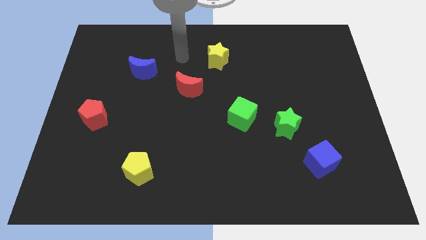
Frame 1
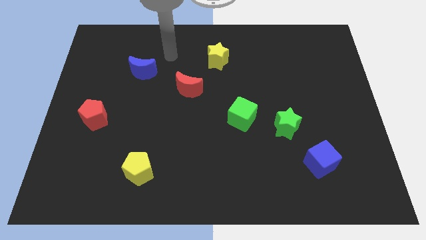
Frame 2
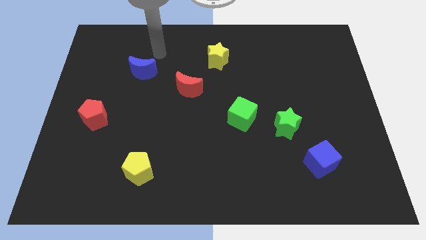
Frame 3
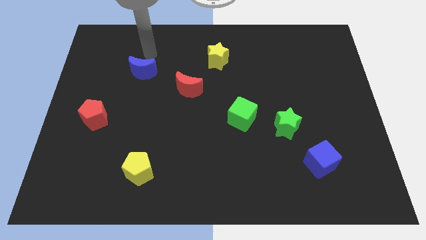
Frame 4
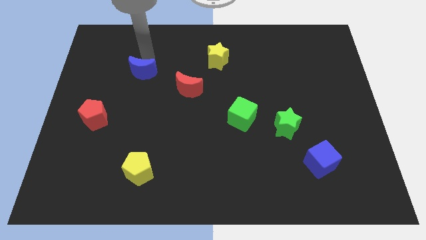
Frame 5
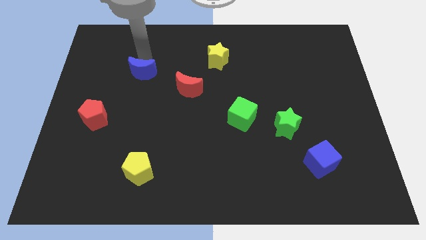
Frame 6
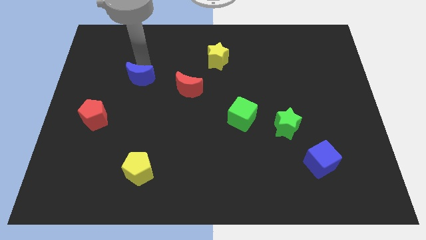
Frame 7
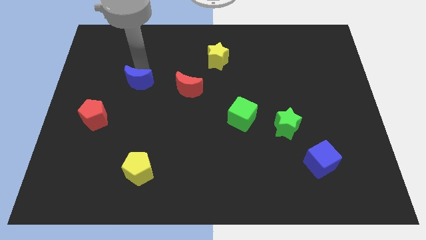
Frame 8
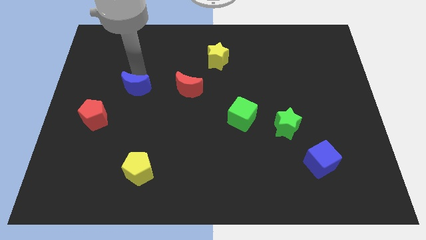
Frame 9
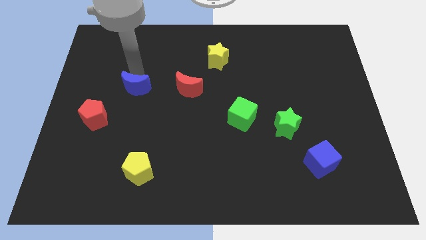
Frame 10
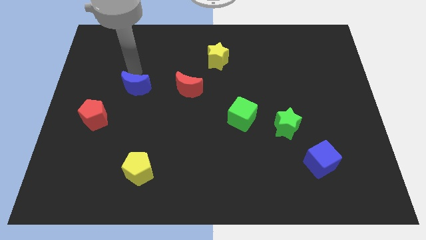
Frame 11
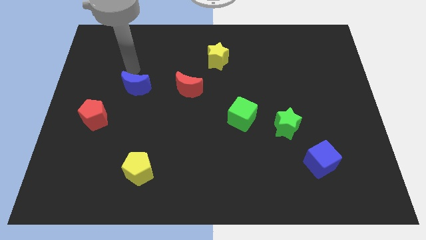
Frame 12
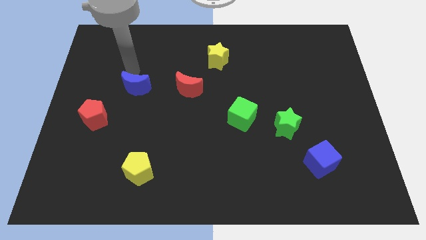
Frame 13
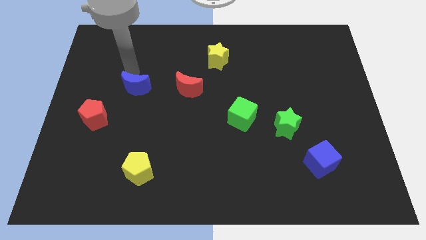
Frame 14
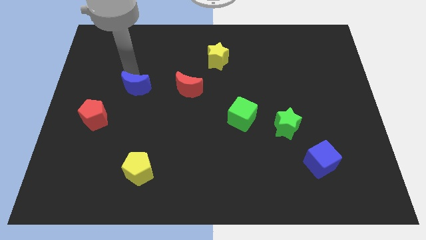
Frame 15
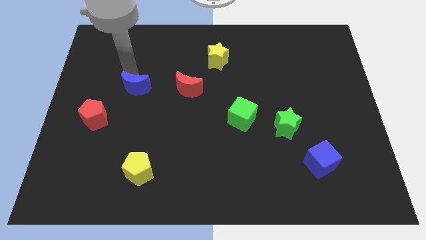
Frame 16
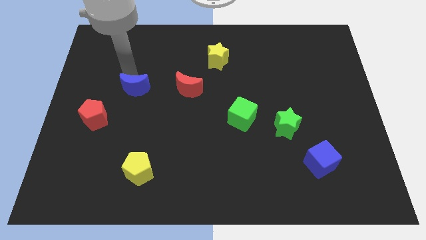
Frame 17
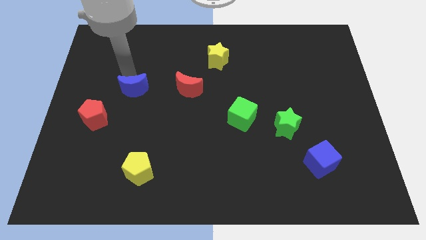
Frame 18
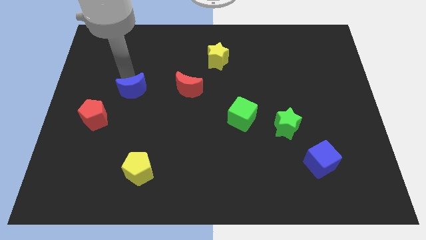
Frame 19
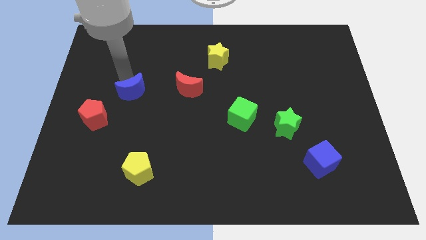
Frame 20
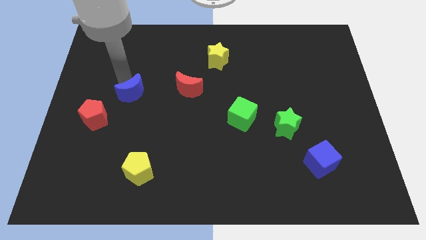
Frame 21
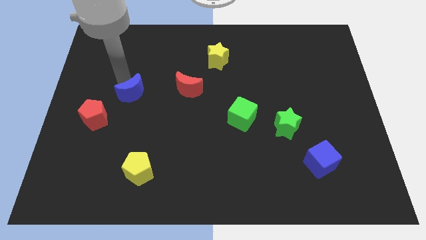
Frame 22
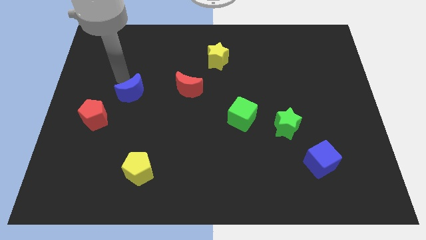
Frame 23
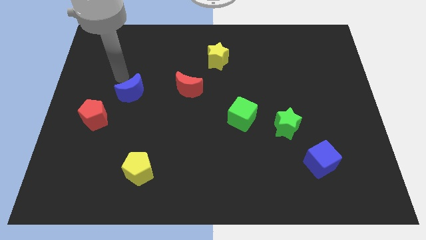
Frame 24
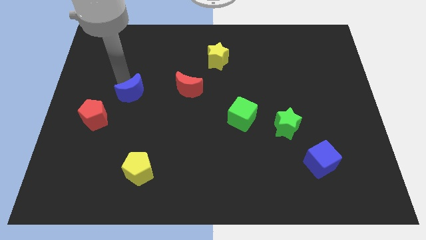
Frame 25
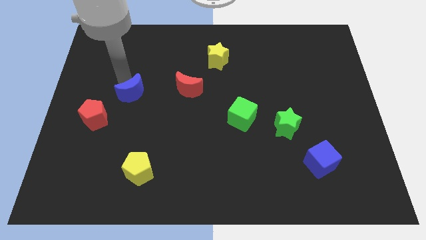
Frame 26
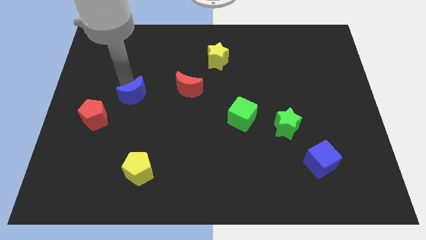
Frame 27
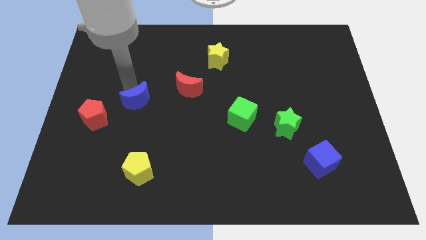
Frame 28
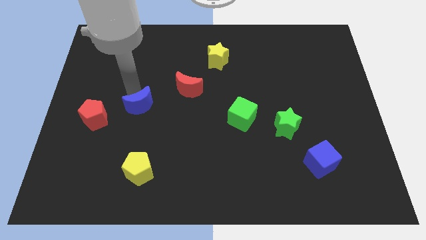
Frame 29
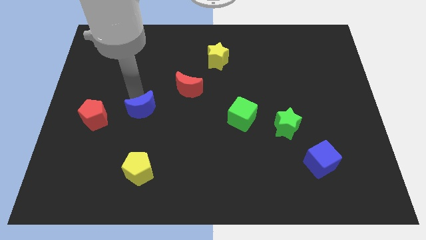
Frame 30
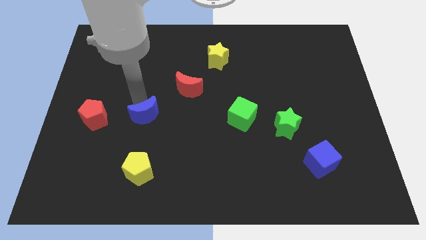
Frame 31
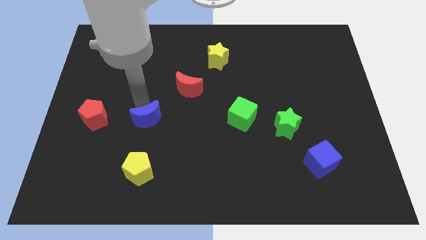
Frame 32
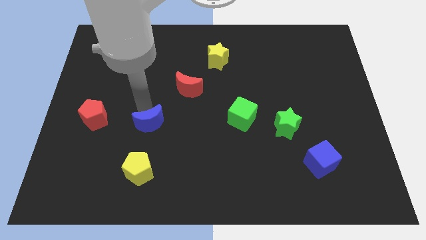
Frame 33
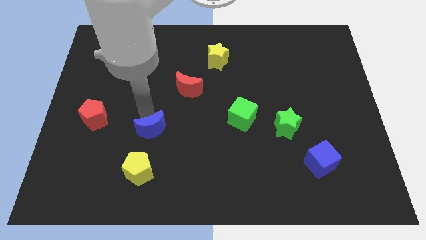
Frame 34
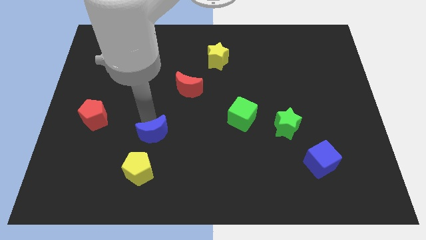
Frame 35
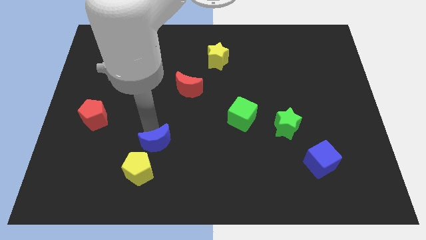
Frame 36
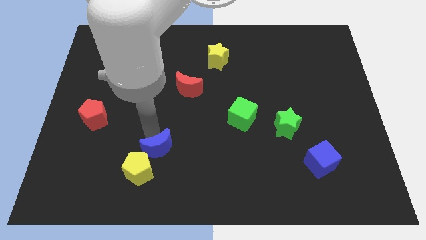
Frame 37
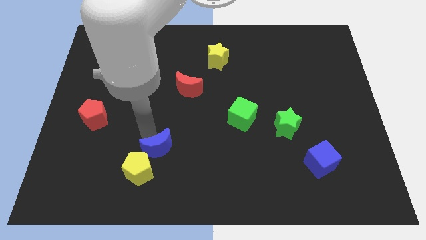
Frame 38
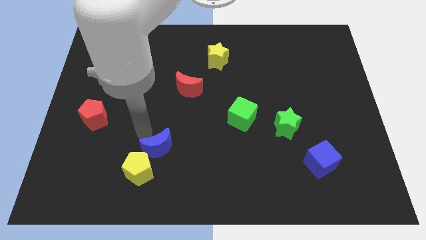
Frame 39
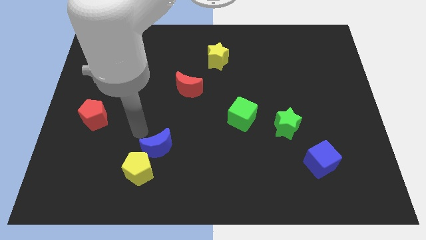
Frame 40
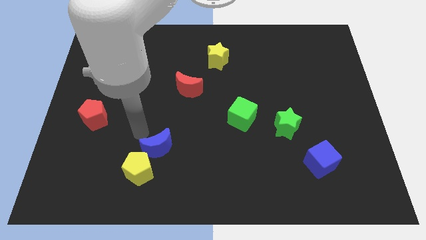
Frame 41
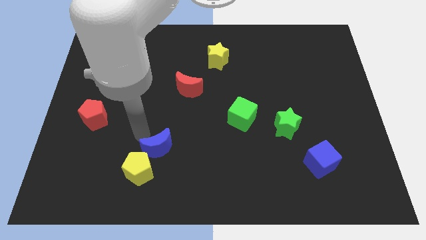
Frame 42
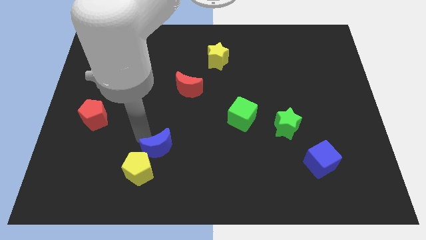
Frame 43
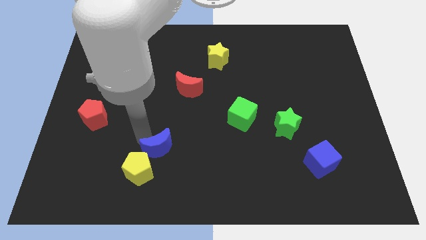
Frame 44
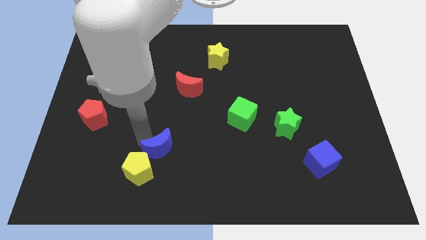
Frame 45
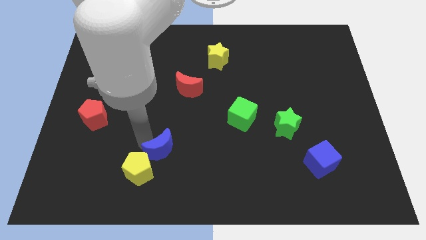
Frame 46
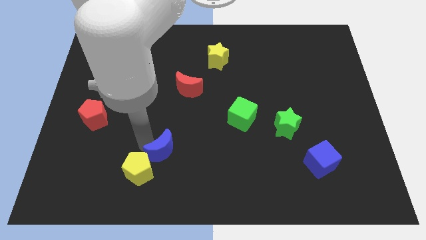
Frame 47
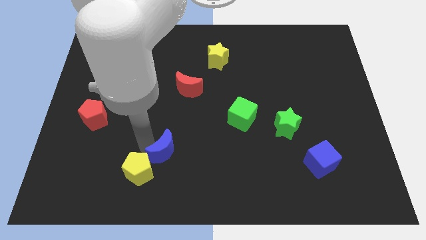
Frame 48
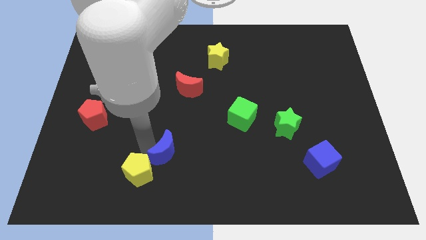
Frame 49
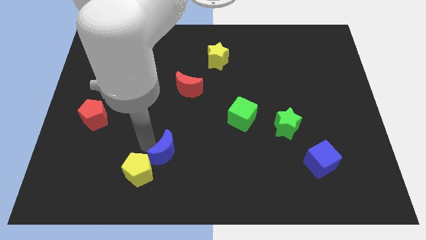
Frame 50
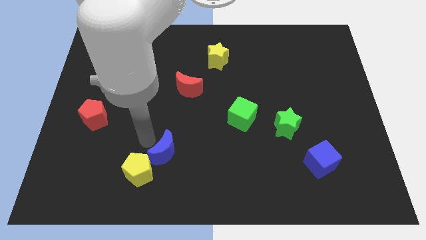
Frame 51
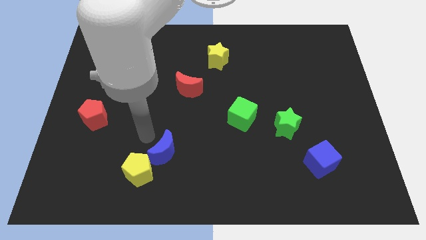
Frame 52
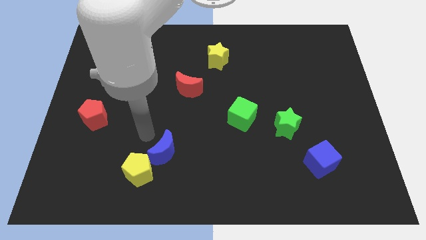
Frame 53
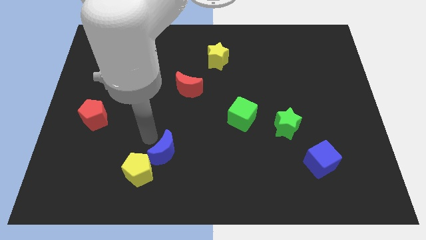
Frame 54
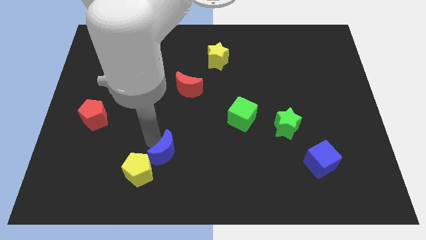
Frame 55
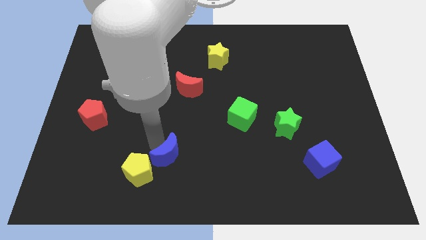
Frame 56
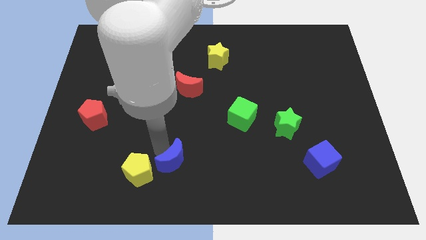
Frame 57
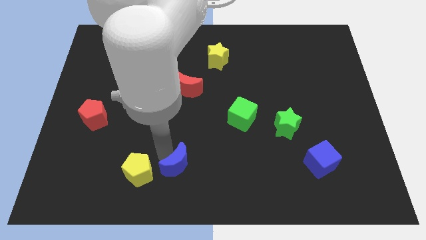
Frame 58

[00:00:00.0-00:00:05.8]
move the blue moon to the bottom
